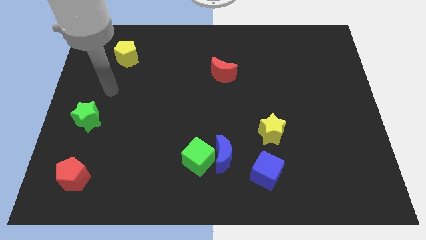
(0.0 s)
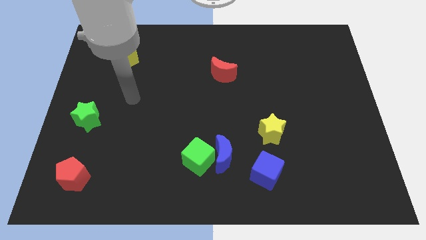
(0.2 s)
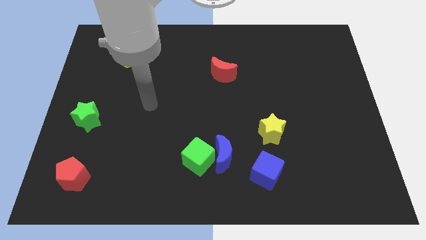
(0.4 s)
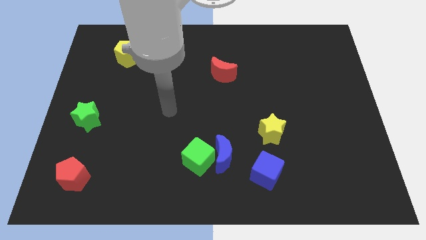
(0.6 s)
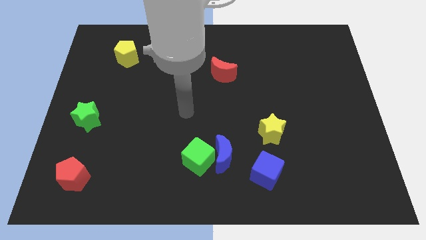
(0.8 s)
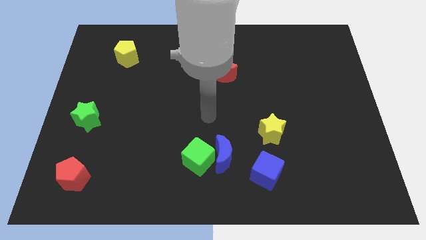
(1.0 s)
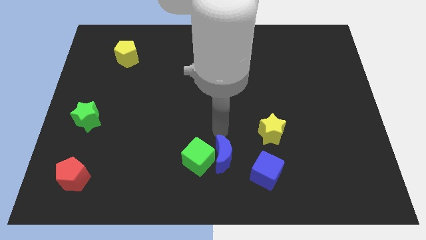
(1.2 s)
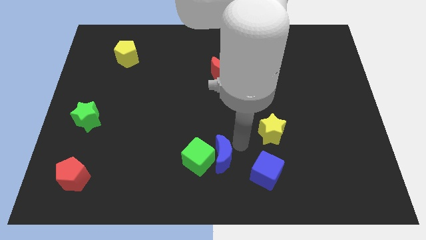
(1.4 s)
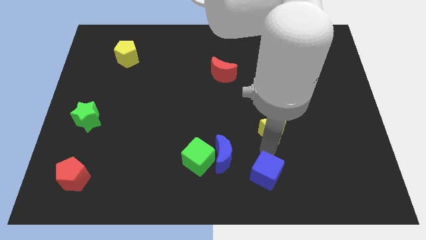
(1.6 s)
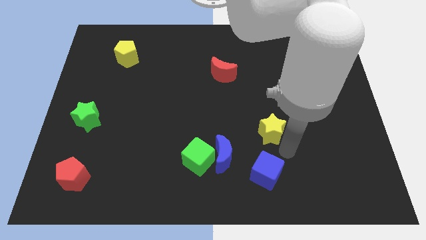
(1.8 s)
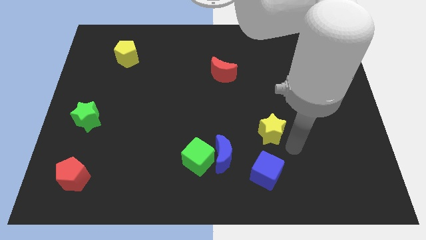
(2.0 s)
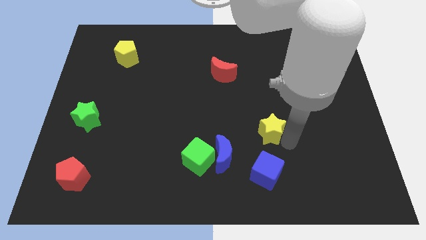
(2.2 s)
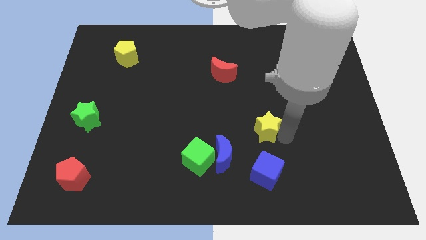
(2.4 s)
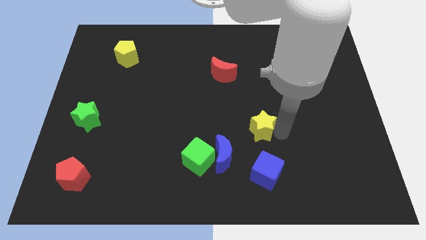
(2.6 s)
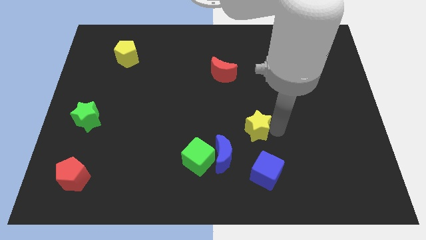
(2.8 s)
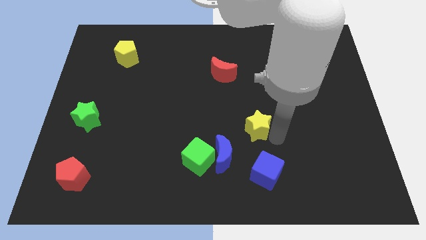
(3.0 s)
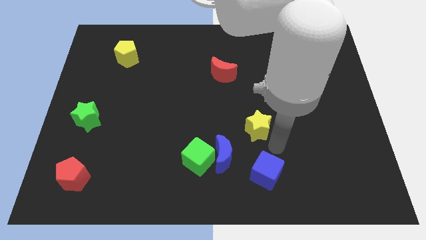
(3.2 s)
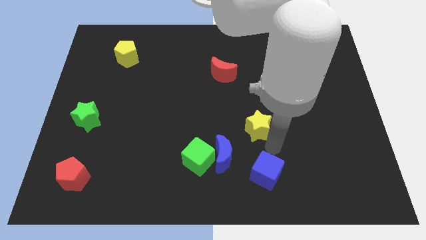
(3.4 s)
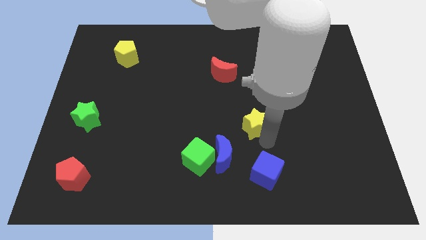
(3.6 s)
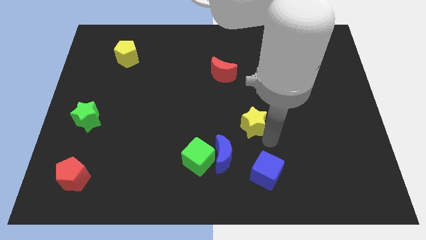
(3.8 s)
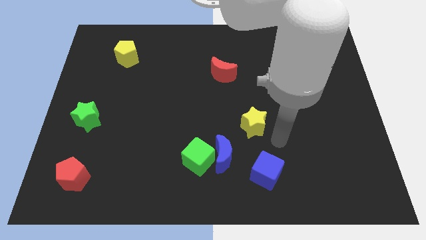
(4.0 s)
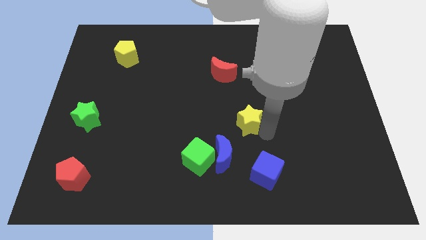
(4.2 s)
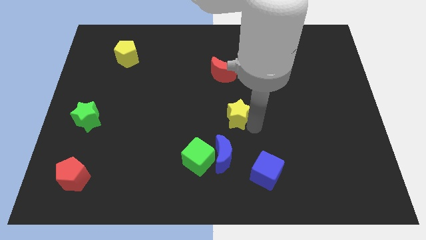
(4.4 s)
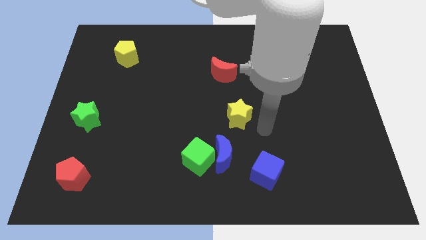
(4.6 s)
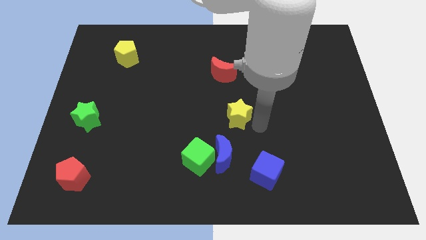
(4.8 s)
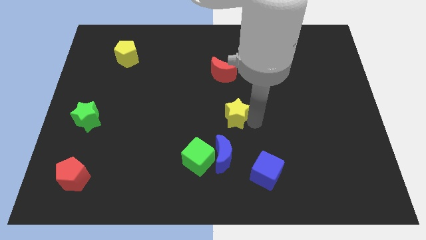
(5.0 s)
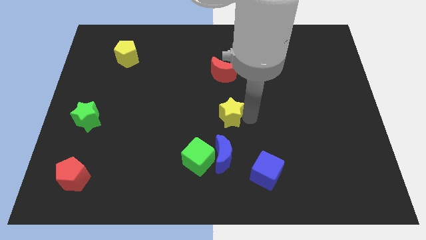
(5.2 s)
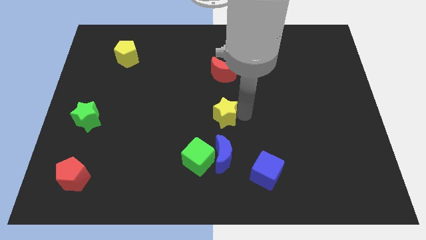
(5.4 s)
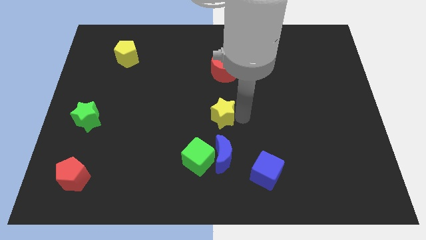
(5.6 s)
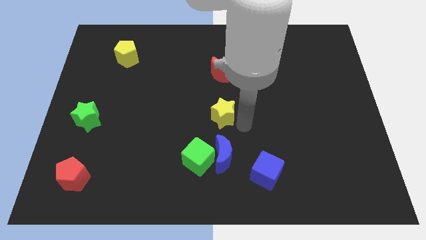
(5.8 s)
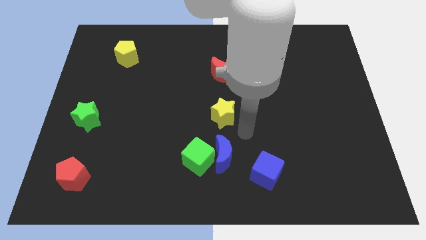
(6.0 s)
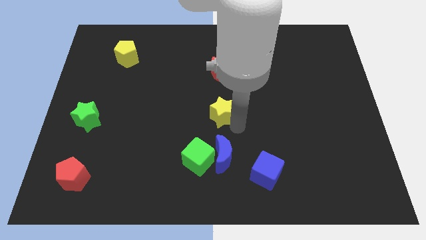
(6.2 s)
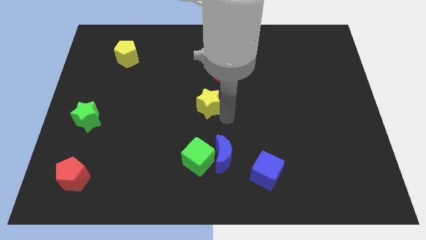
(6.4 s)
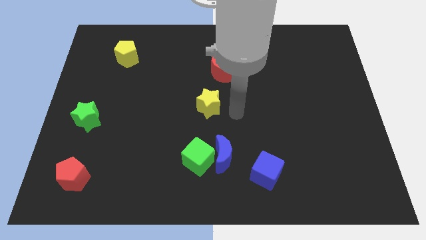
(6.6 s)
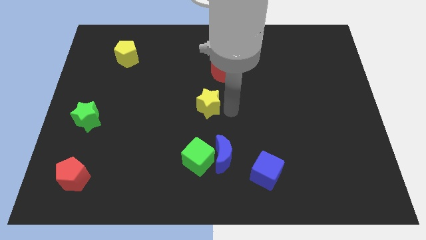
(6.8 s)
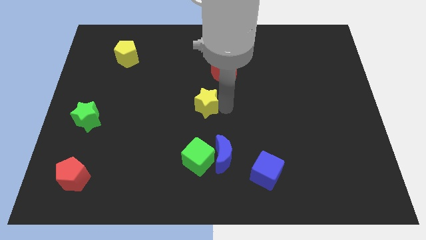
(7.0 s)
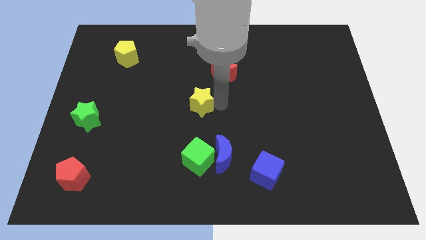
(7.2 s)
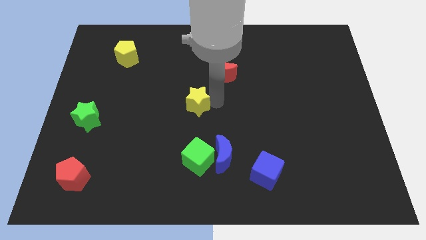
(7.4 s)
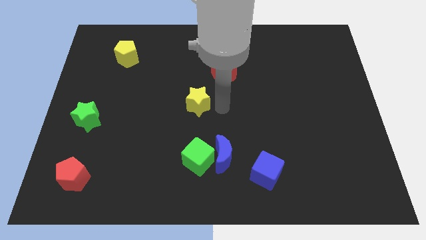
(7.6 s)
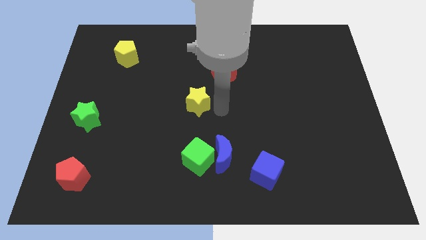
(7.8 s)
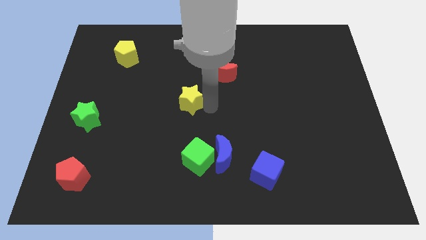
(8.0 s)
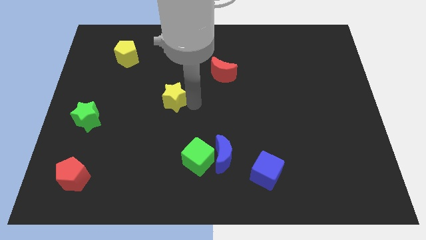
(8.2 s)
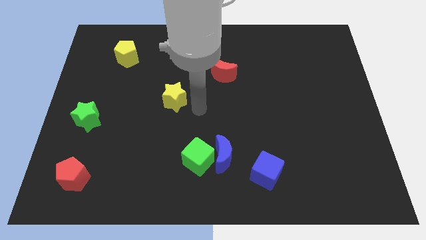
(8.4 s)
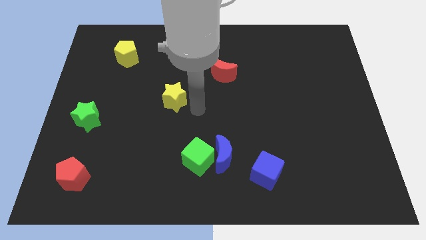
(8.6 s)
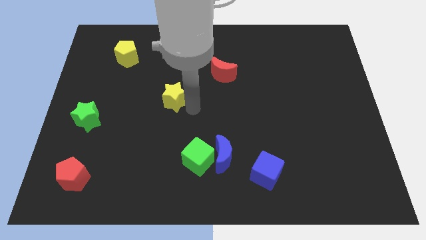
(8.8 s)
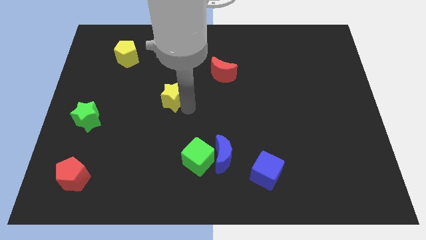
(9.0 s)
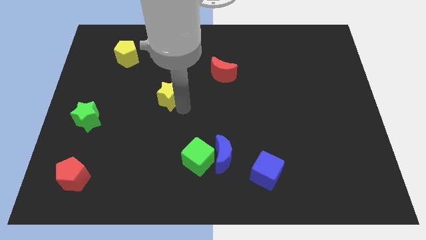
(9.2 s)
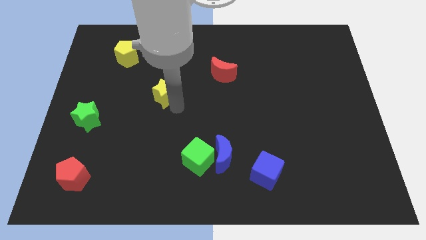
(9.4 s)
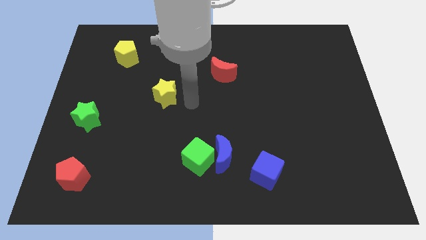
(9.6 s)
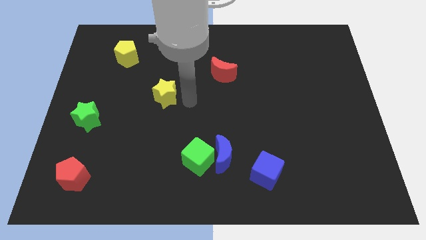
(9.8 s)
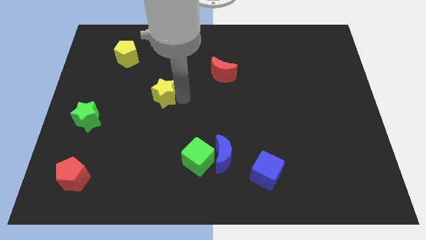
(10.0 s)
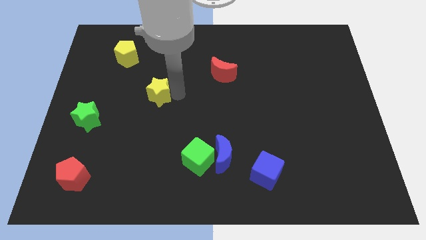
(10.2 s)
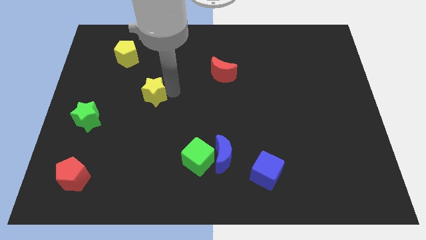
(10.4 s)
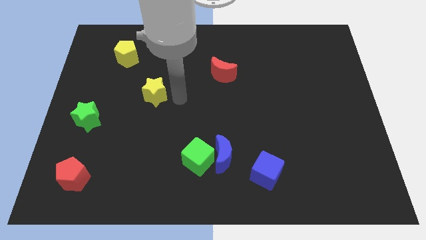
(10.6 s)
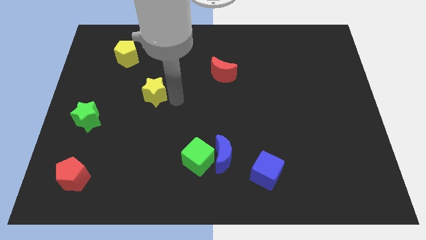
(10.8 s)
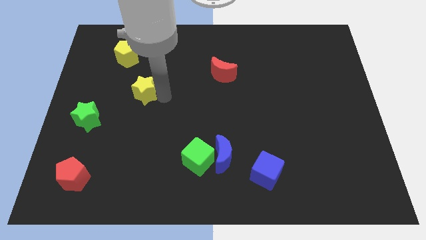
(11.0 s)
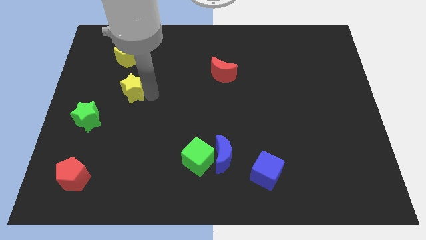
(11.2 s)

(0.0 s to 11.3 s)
push the yellow star to the bottom of the yellow pentagon
